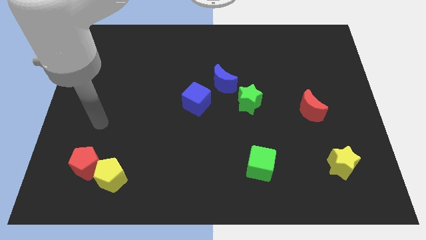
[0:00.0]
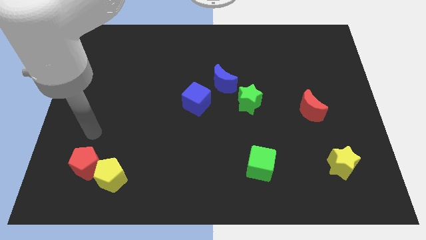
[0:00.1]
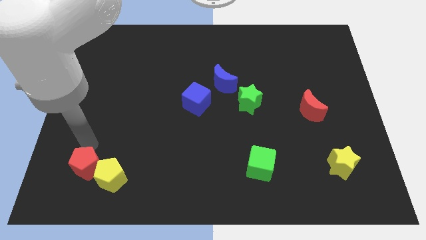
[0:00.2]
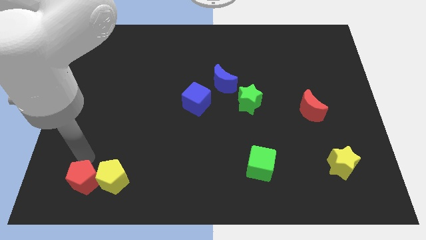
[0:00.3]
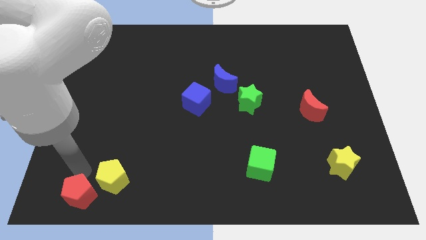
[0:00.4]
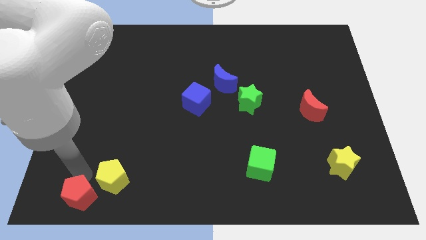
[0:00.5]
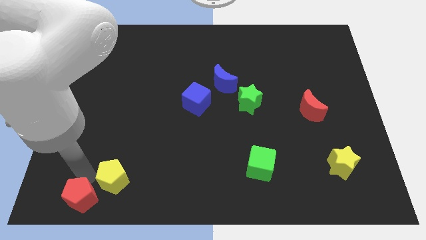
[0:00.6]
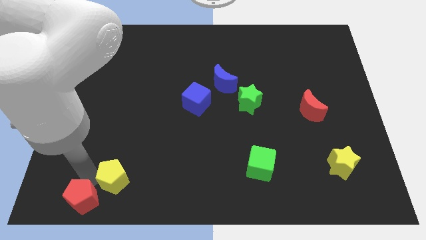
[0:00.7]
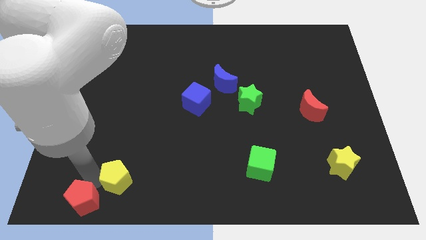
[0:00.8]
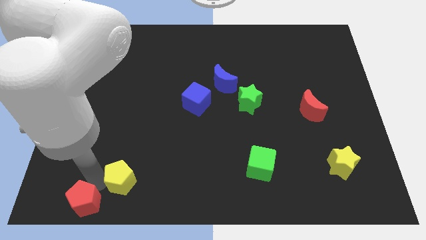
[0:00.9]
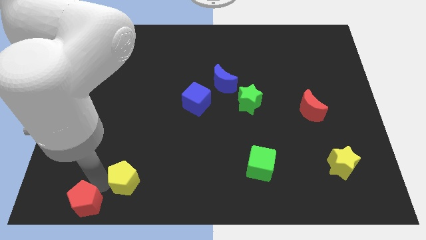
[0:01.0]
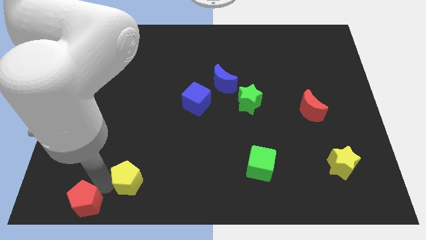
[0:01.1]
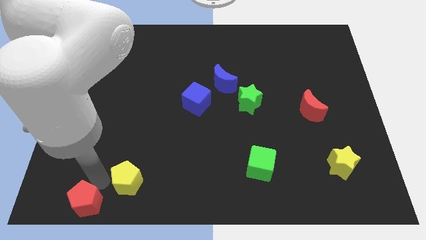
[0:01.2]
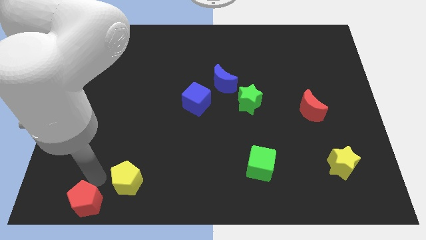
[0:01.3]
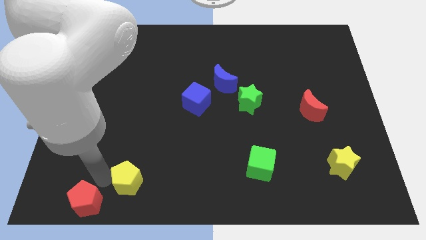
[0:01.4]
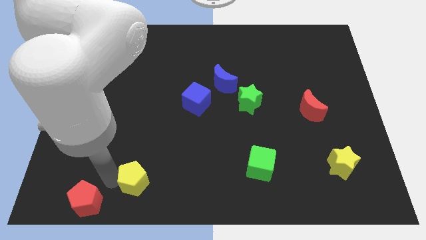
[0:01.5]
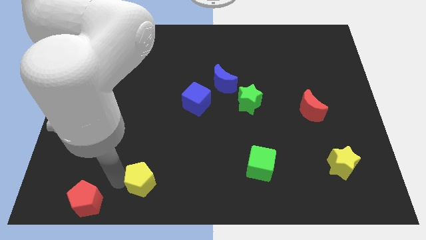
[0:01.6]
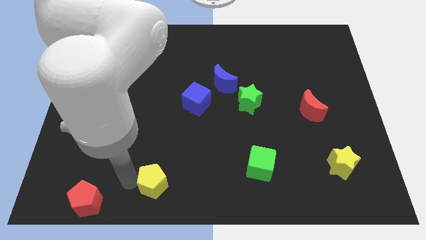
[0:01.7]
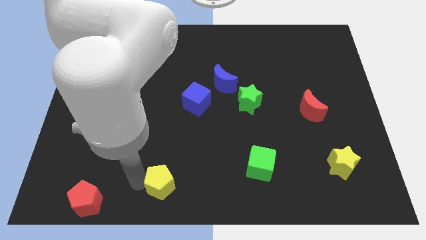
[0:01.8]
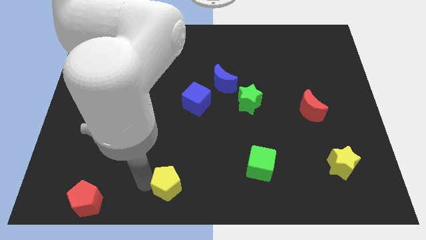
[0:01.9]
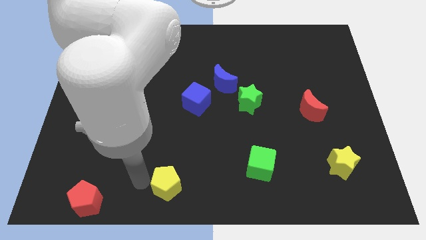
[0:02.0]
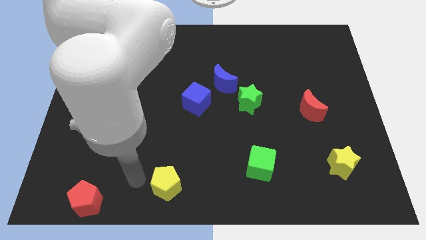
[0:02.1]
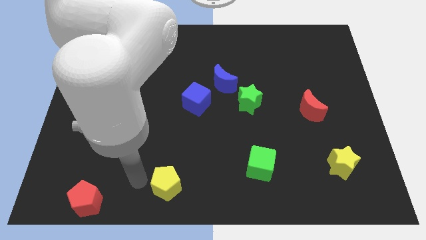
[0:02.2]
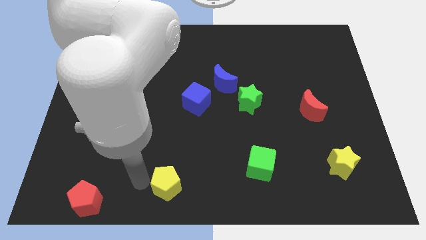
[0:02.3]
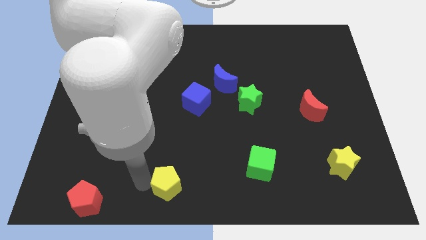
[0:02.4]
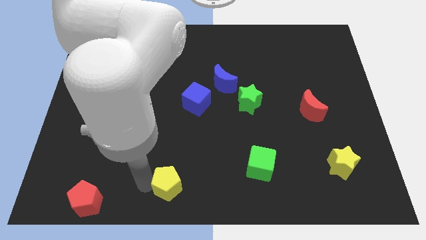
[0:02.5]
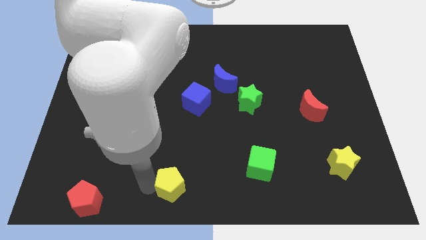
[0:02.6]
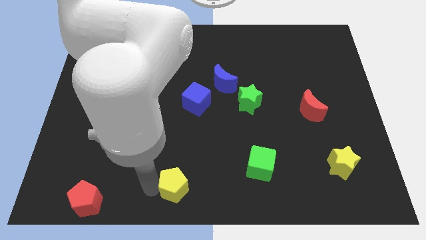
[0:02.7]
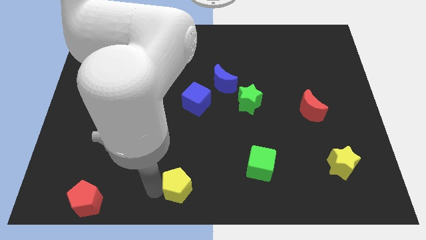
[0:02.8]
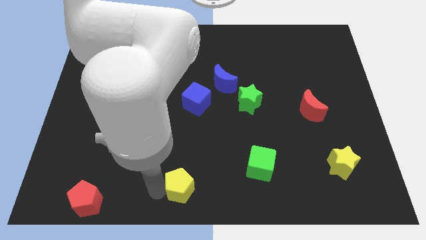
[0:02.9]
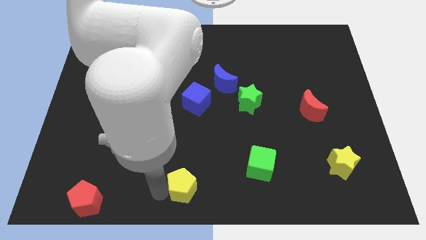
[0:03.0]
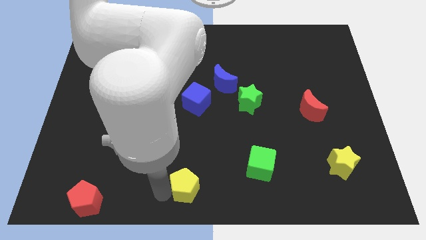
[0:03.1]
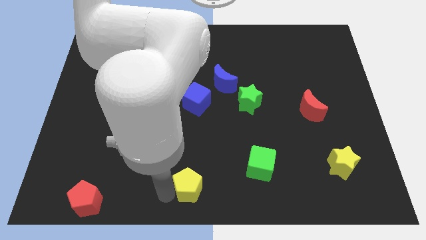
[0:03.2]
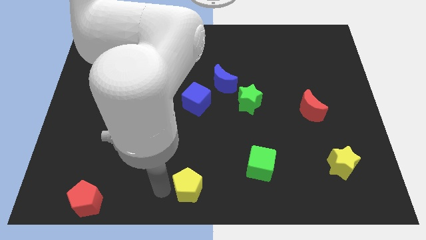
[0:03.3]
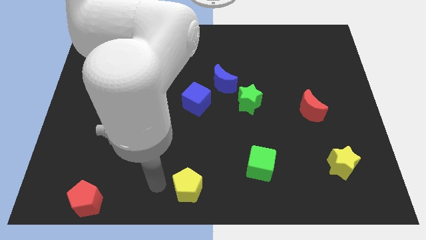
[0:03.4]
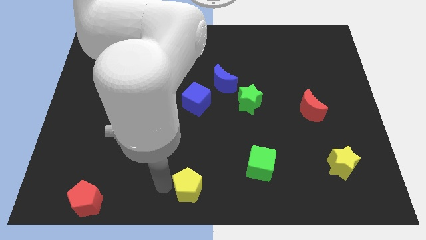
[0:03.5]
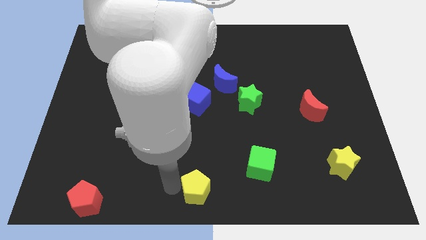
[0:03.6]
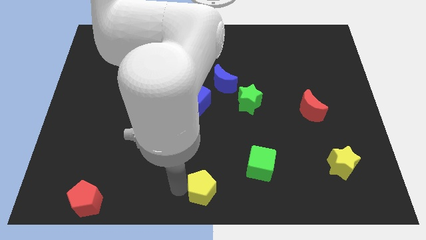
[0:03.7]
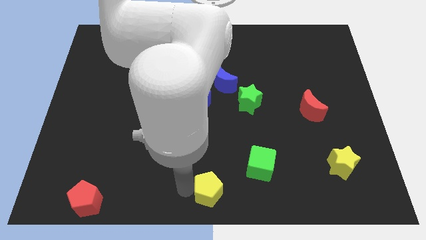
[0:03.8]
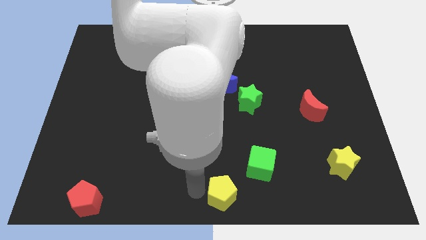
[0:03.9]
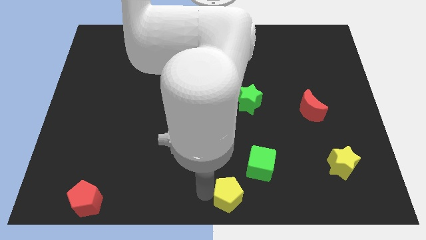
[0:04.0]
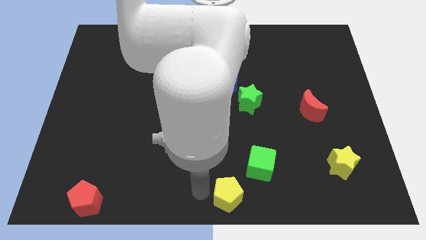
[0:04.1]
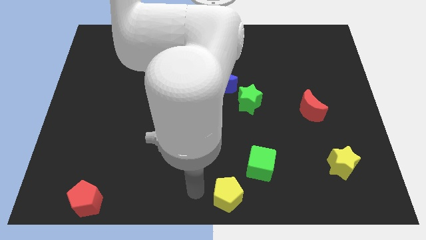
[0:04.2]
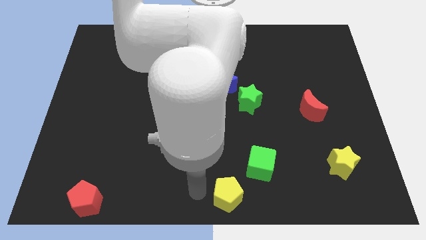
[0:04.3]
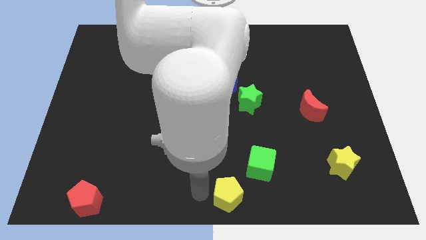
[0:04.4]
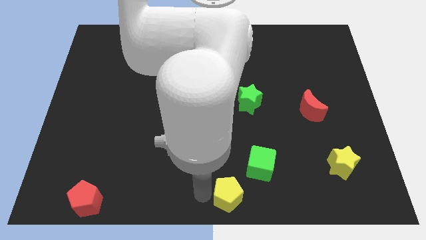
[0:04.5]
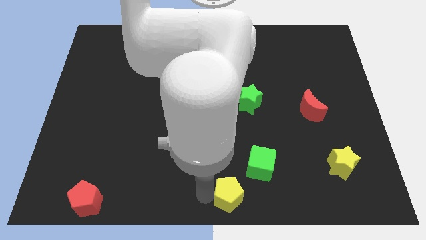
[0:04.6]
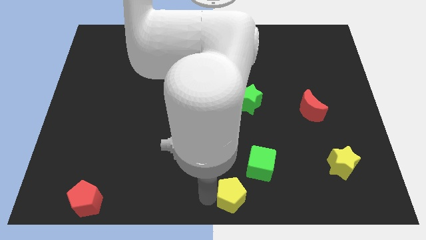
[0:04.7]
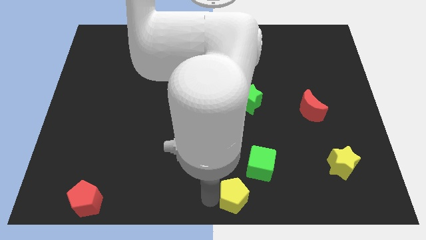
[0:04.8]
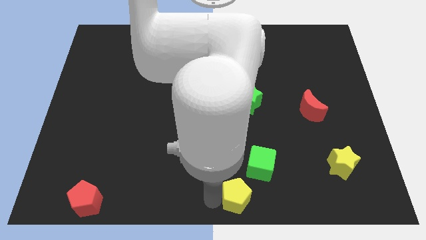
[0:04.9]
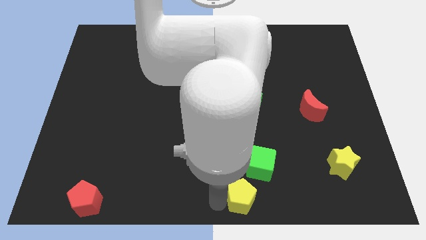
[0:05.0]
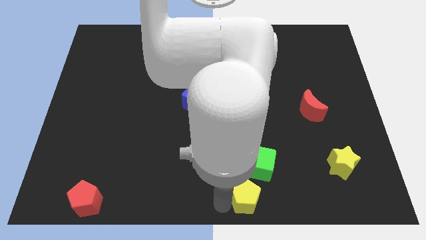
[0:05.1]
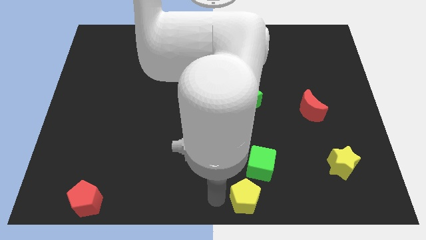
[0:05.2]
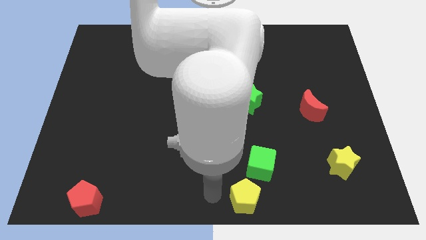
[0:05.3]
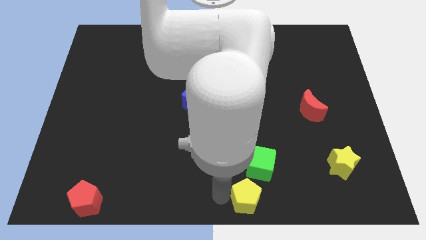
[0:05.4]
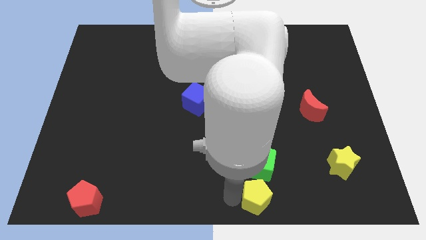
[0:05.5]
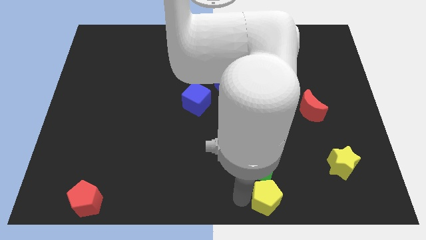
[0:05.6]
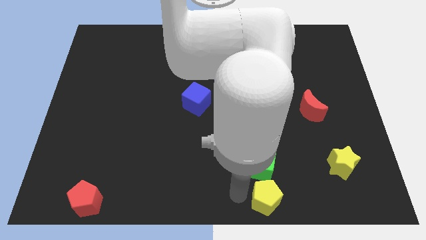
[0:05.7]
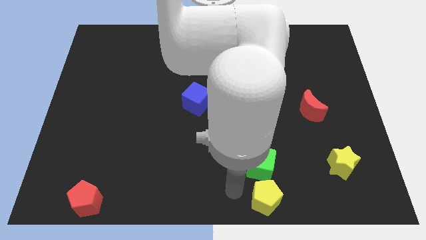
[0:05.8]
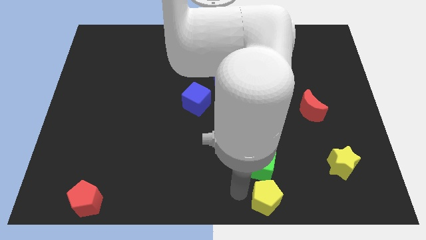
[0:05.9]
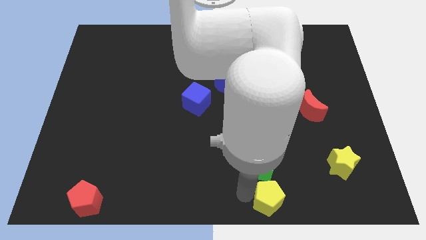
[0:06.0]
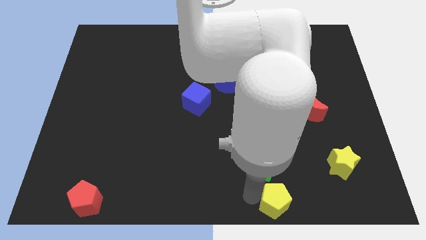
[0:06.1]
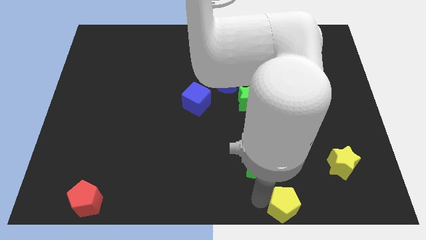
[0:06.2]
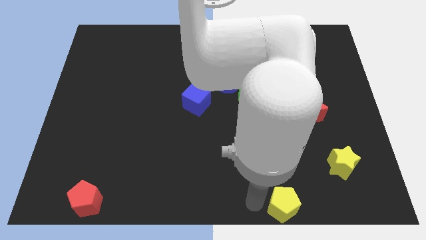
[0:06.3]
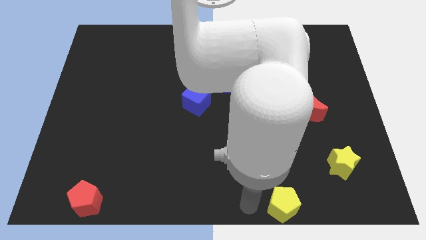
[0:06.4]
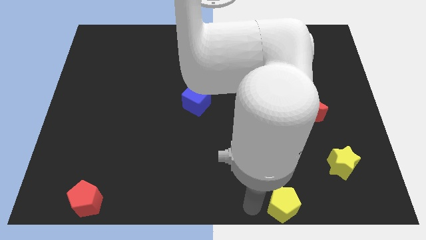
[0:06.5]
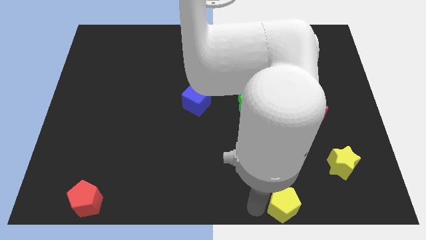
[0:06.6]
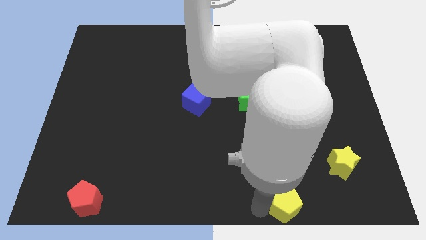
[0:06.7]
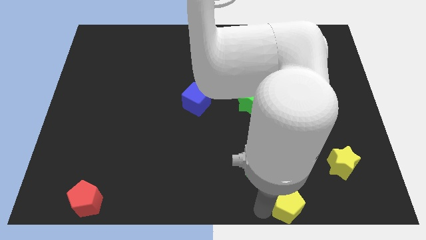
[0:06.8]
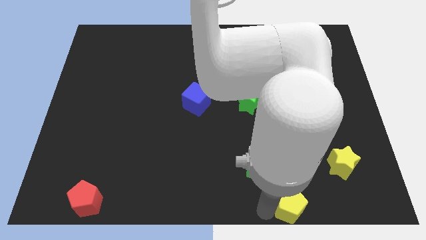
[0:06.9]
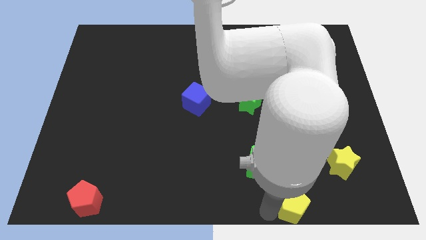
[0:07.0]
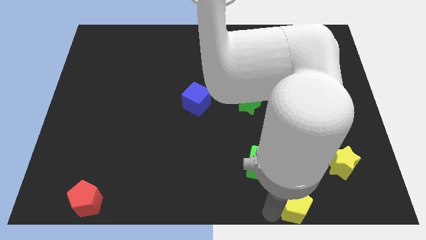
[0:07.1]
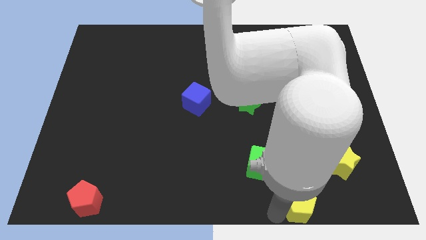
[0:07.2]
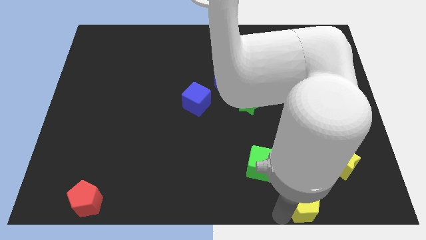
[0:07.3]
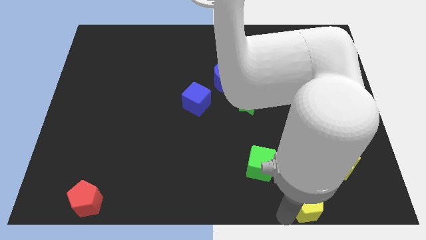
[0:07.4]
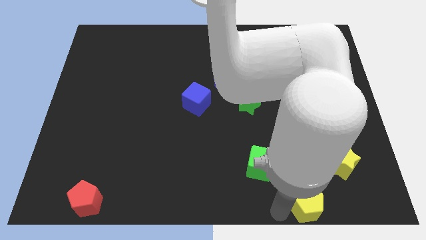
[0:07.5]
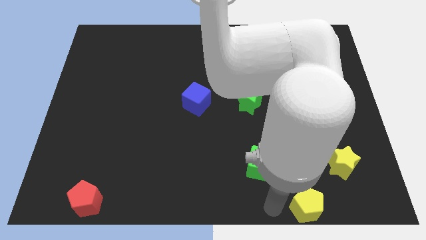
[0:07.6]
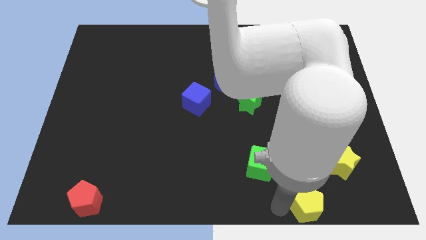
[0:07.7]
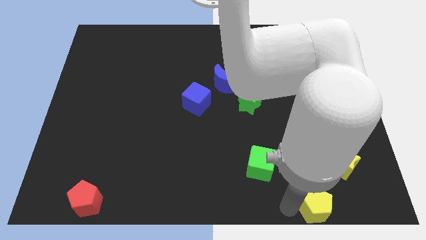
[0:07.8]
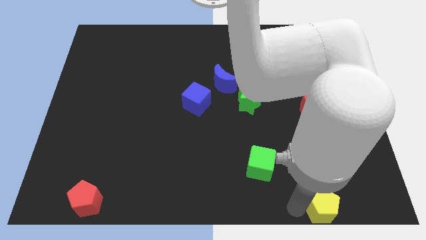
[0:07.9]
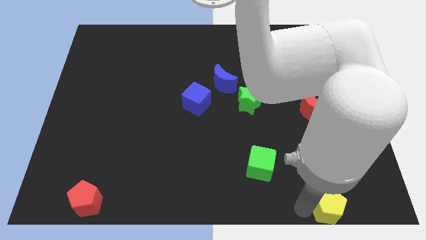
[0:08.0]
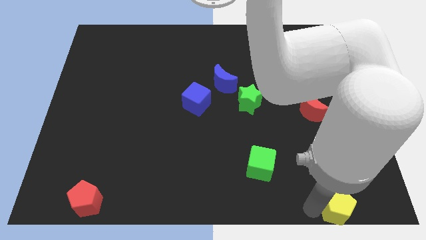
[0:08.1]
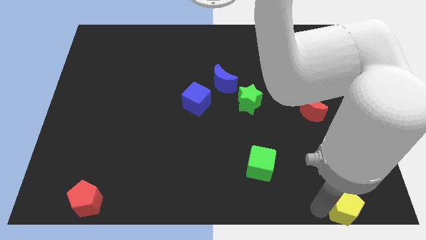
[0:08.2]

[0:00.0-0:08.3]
push the yellow pentagon to the bottom right
